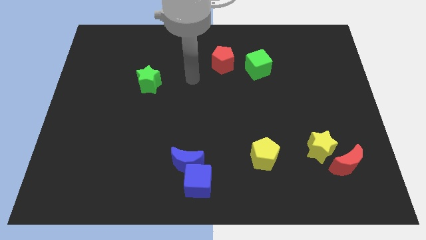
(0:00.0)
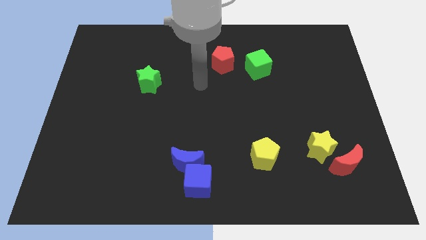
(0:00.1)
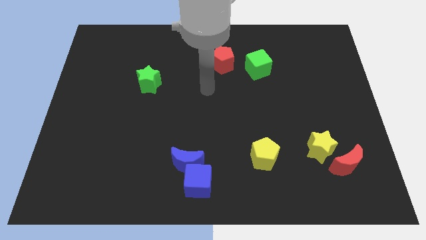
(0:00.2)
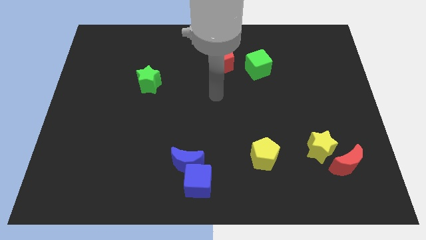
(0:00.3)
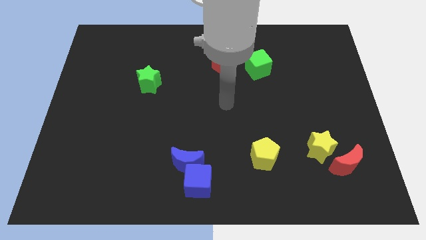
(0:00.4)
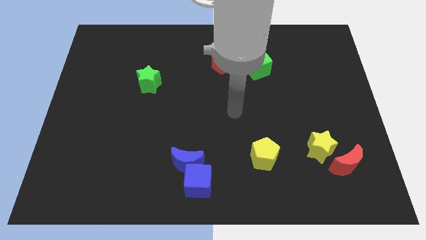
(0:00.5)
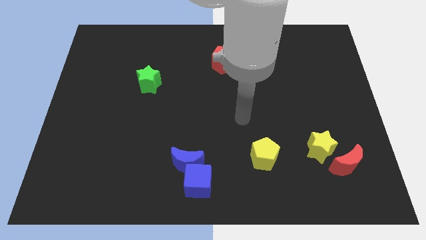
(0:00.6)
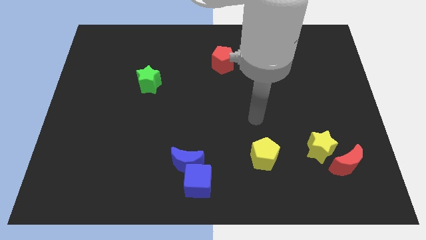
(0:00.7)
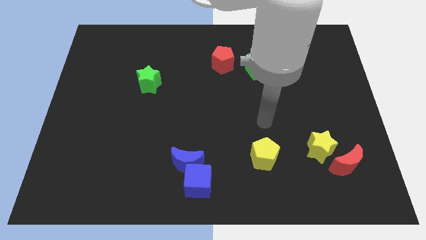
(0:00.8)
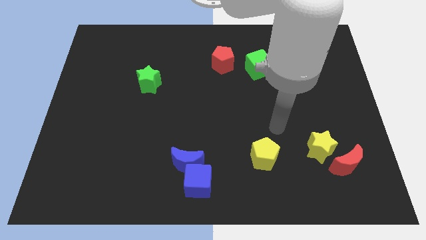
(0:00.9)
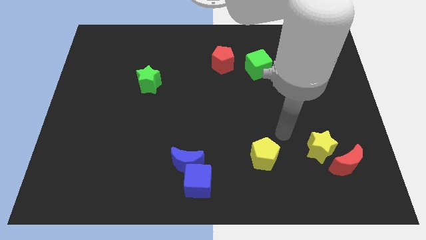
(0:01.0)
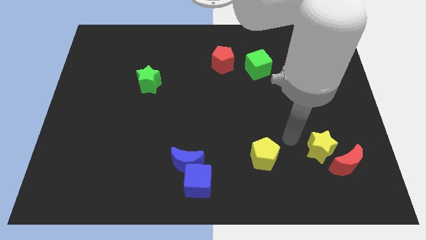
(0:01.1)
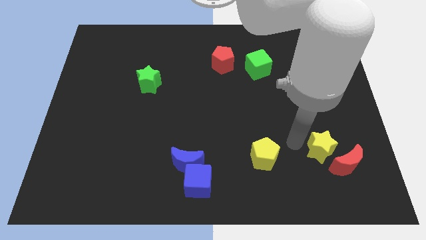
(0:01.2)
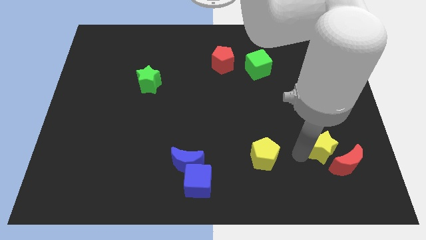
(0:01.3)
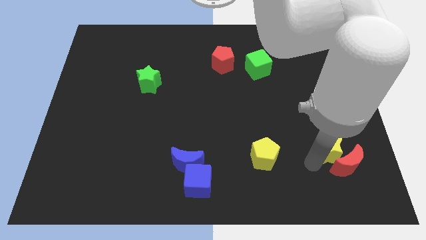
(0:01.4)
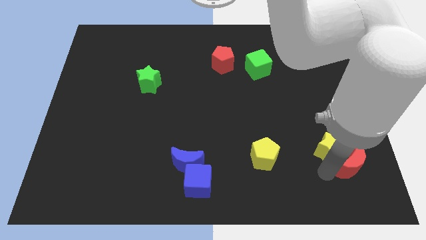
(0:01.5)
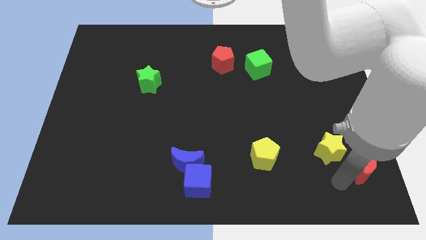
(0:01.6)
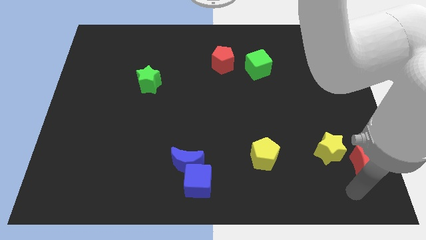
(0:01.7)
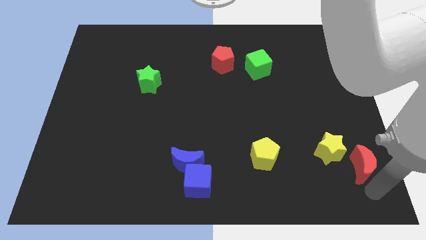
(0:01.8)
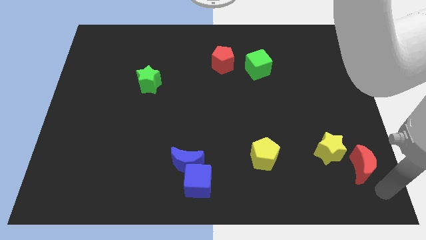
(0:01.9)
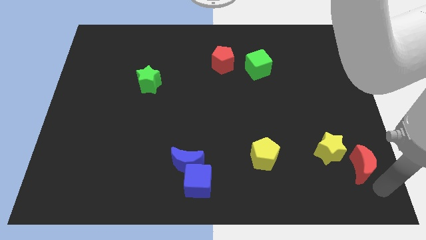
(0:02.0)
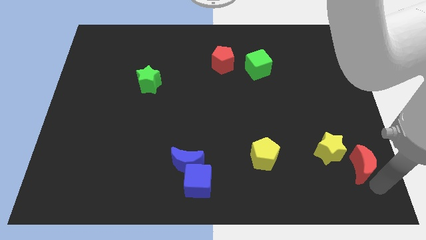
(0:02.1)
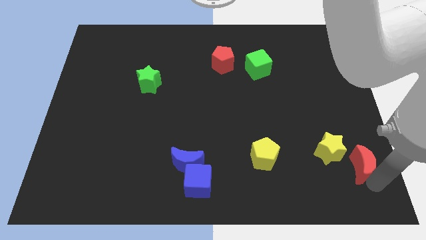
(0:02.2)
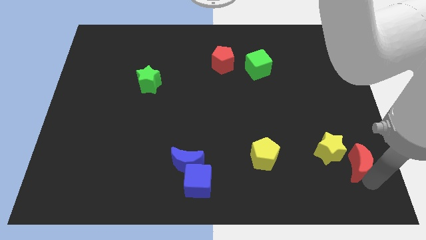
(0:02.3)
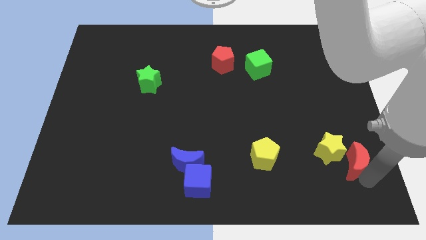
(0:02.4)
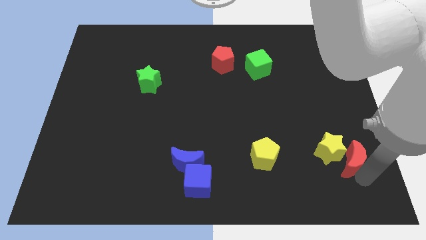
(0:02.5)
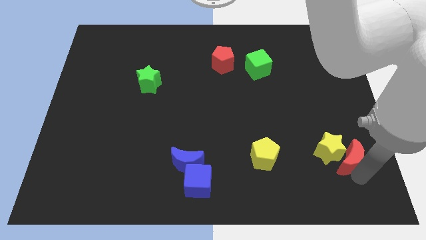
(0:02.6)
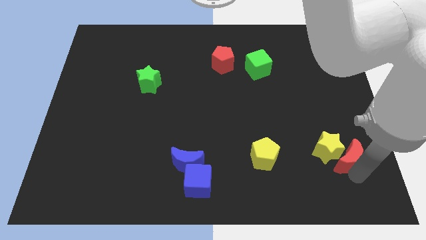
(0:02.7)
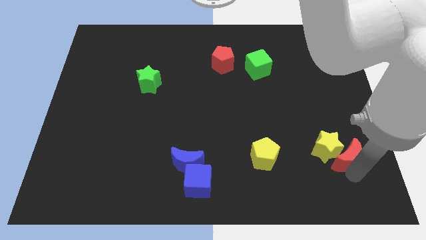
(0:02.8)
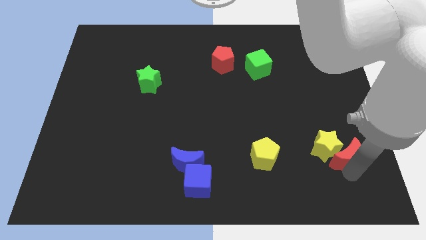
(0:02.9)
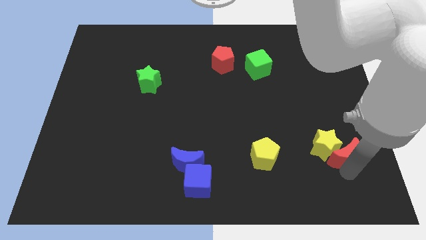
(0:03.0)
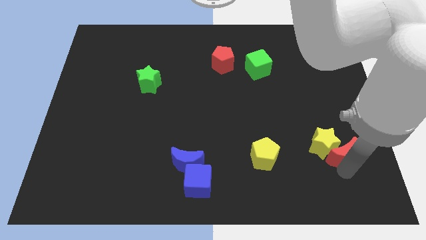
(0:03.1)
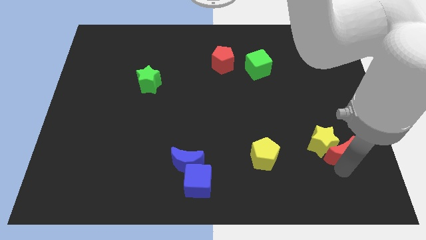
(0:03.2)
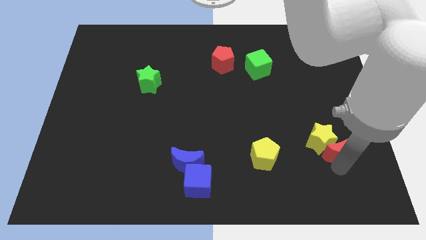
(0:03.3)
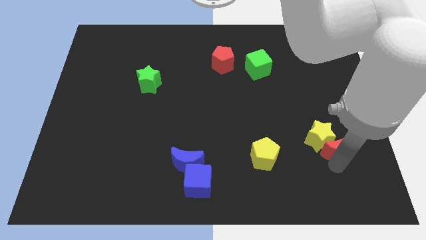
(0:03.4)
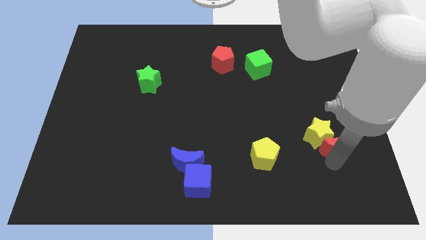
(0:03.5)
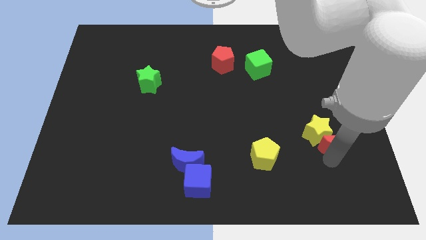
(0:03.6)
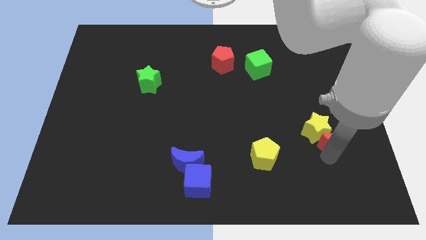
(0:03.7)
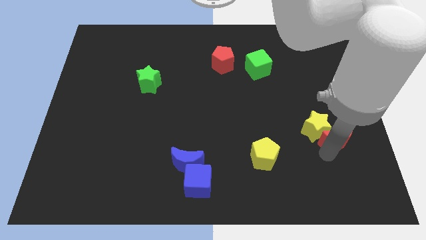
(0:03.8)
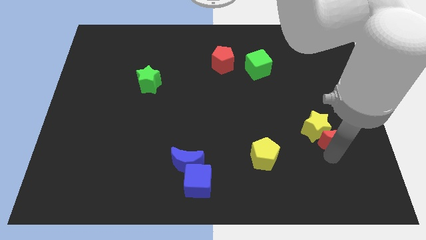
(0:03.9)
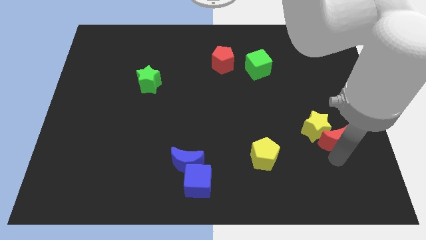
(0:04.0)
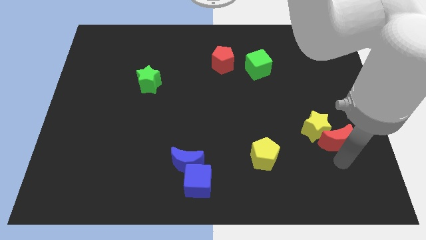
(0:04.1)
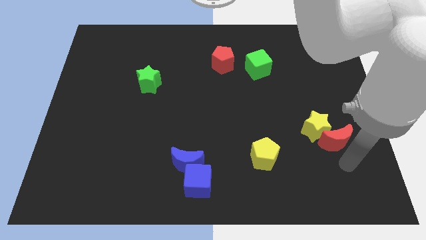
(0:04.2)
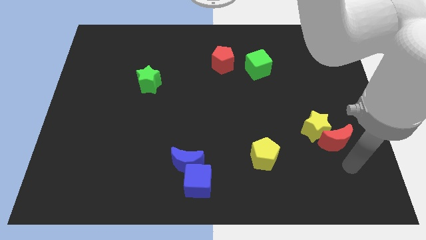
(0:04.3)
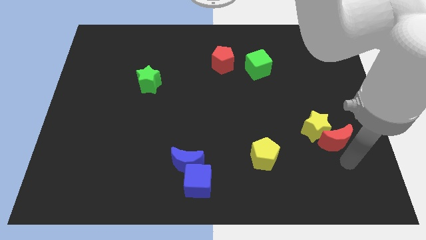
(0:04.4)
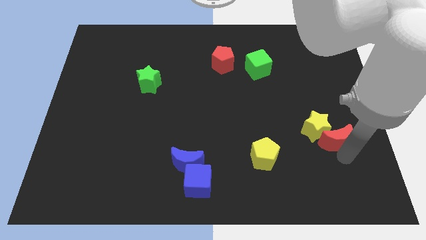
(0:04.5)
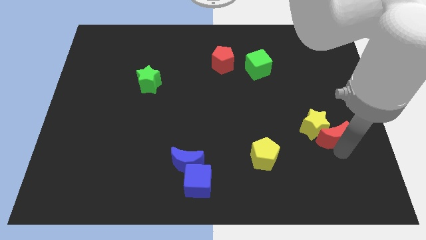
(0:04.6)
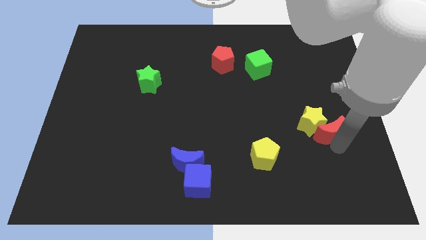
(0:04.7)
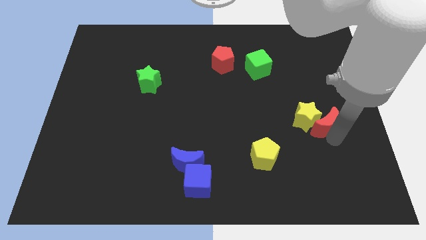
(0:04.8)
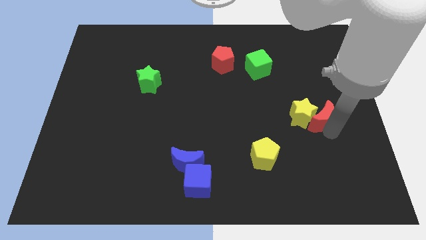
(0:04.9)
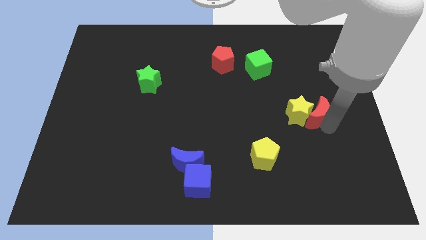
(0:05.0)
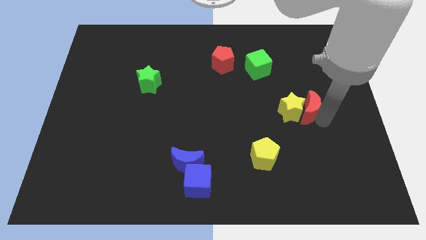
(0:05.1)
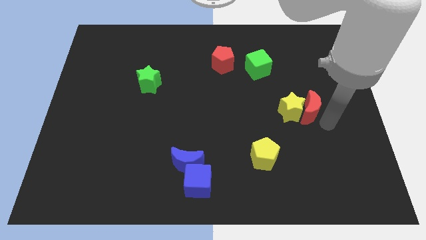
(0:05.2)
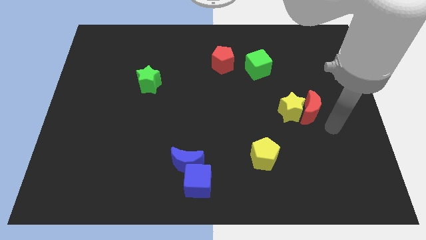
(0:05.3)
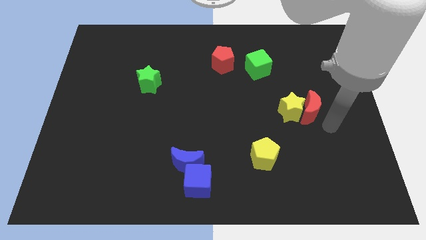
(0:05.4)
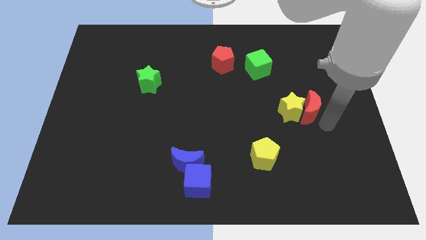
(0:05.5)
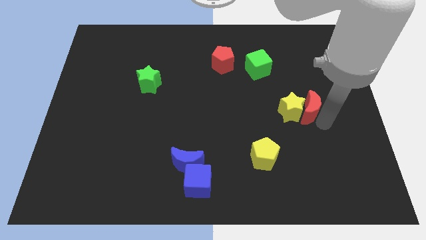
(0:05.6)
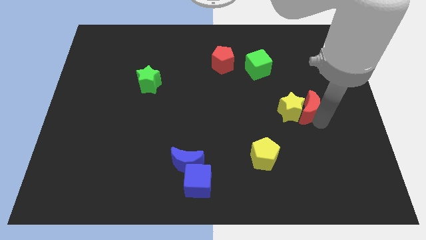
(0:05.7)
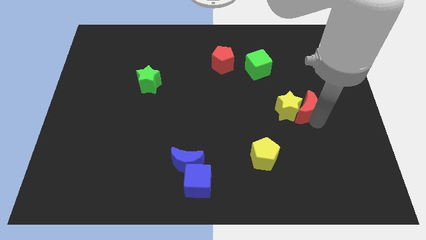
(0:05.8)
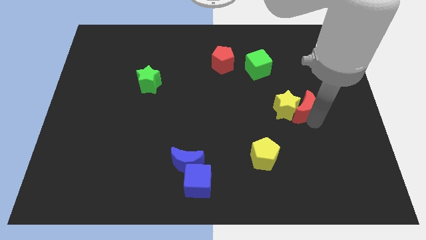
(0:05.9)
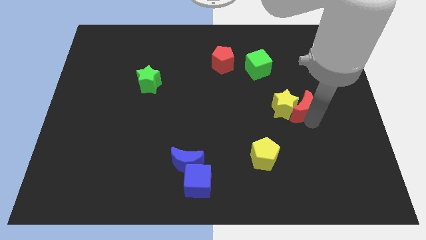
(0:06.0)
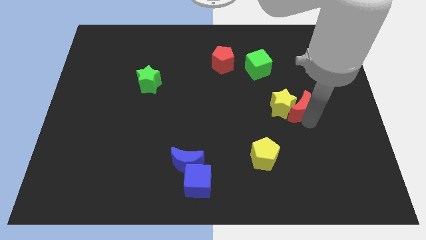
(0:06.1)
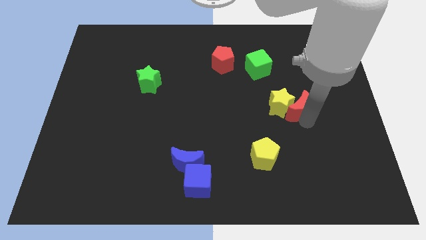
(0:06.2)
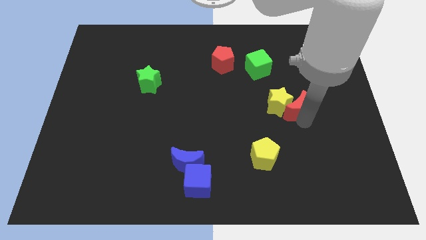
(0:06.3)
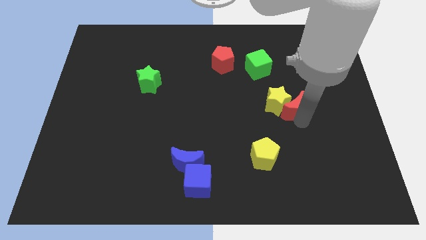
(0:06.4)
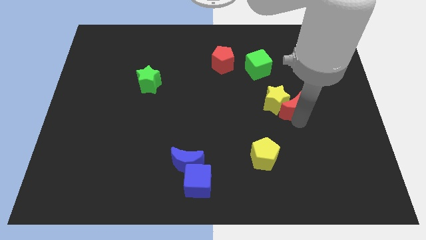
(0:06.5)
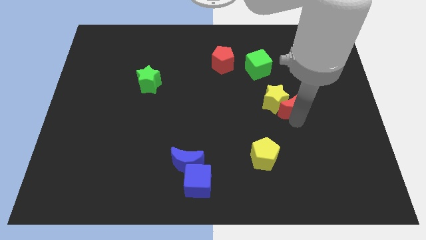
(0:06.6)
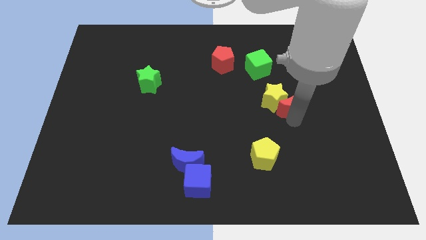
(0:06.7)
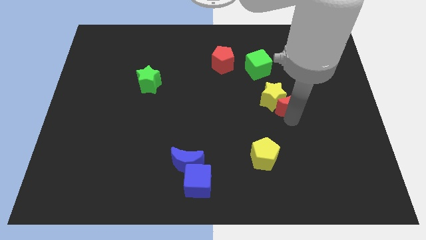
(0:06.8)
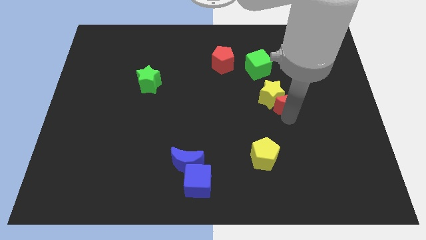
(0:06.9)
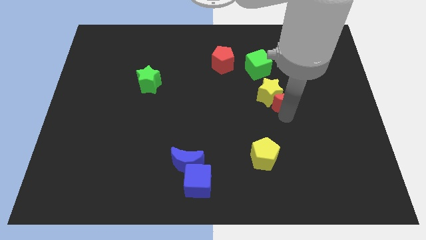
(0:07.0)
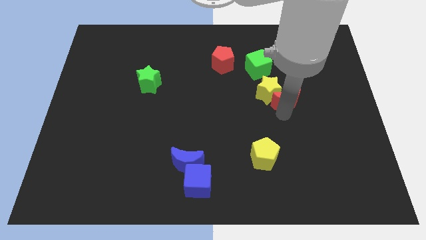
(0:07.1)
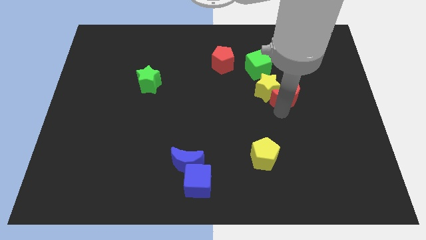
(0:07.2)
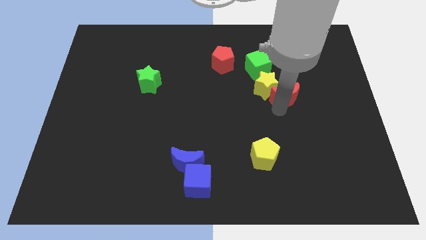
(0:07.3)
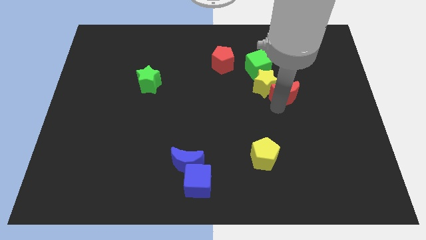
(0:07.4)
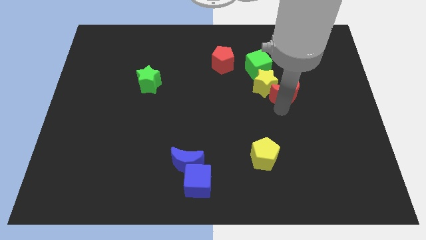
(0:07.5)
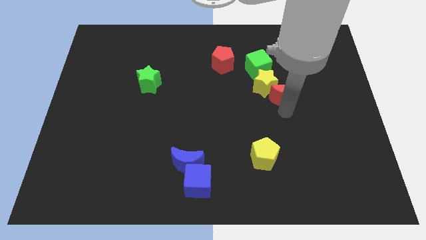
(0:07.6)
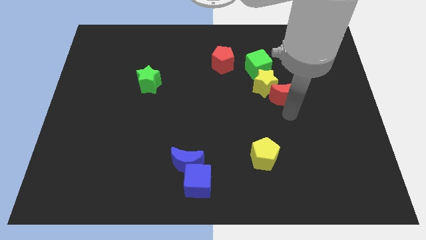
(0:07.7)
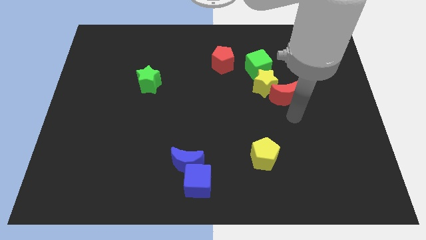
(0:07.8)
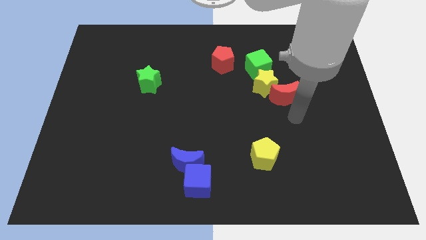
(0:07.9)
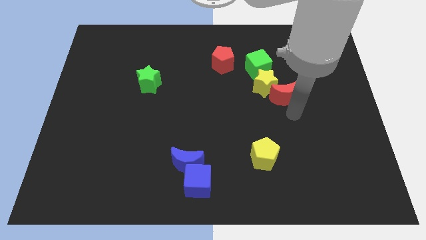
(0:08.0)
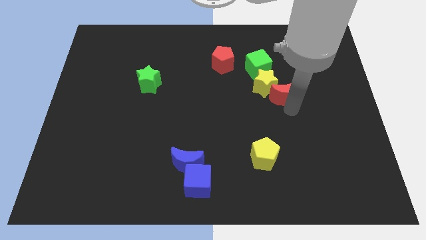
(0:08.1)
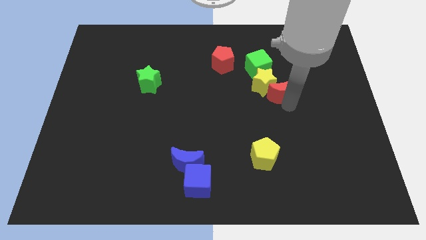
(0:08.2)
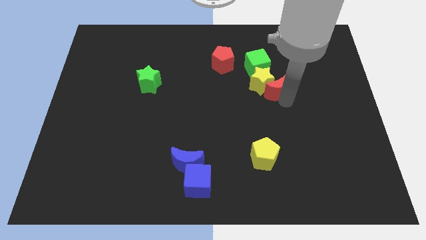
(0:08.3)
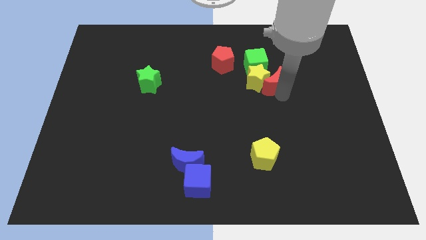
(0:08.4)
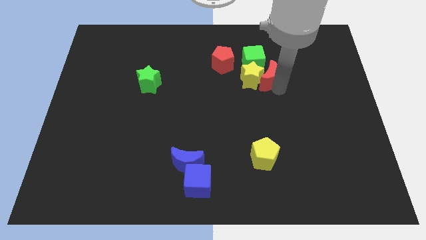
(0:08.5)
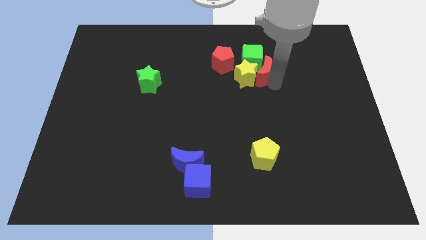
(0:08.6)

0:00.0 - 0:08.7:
push the red moon close to the green cube
